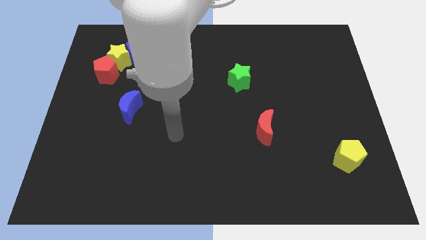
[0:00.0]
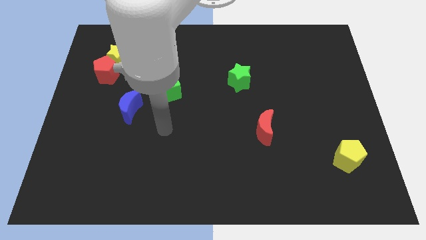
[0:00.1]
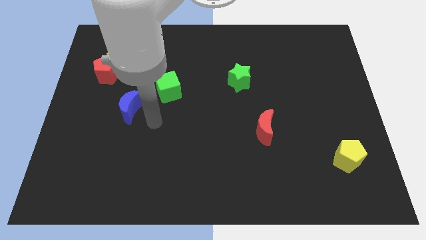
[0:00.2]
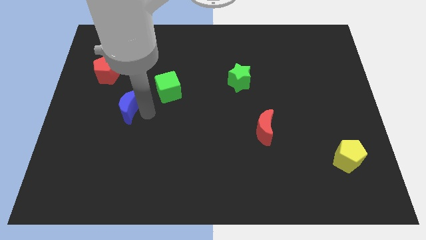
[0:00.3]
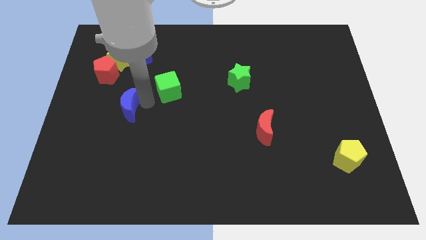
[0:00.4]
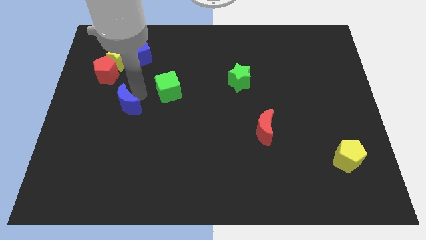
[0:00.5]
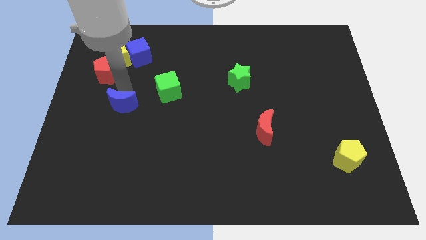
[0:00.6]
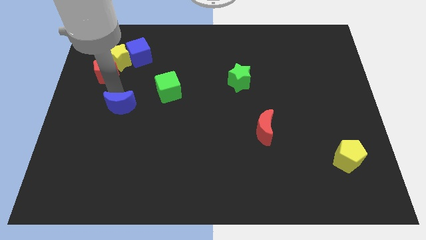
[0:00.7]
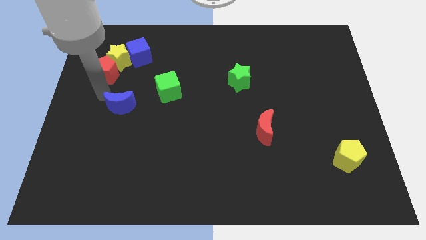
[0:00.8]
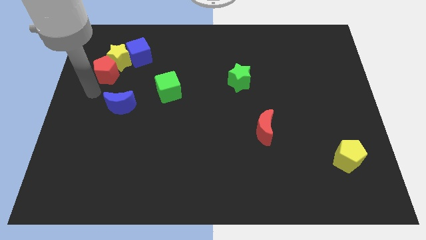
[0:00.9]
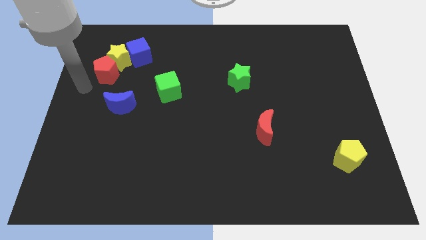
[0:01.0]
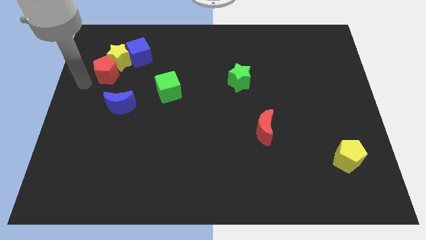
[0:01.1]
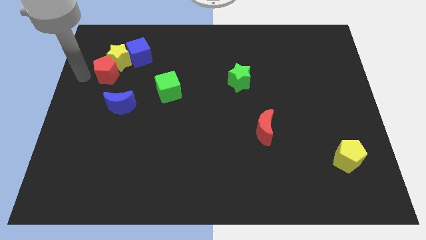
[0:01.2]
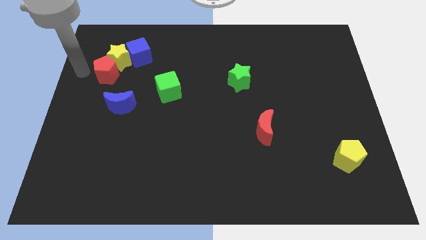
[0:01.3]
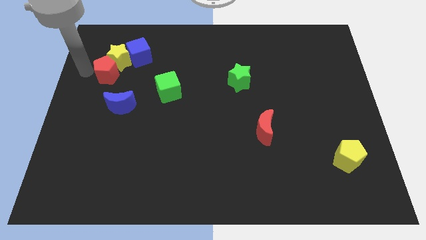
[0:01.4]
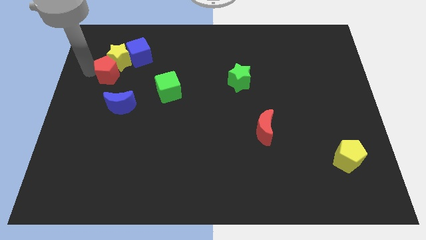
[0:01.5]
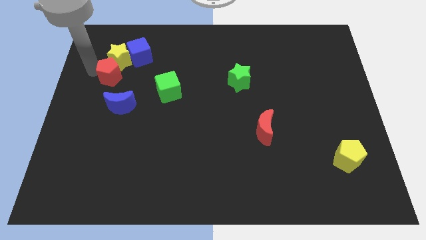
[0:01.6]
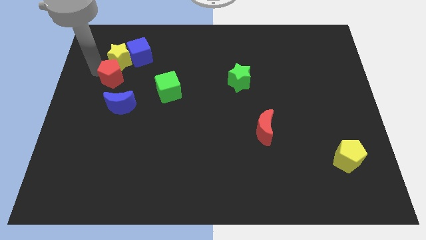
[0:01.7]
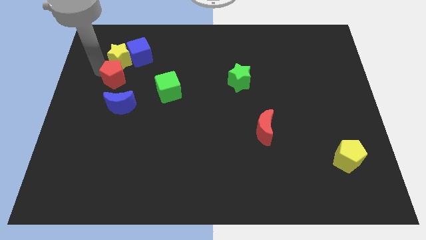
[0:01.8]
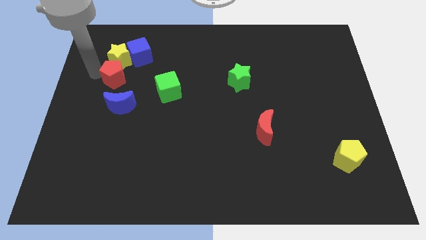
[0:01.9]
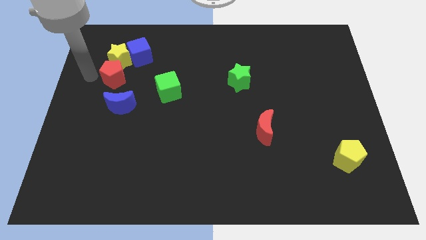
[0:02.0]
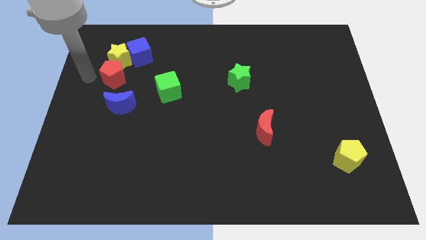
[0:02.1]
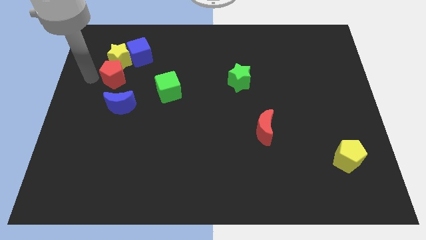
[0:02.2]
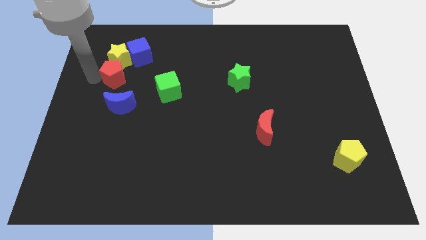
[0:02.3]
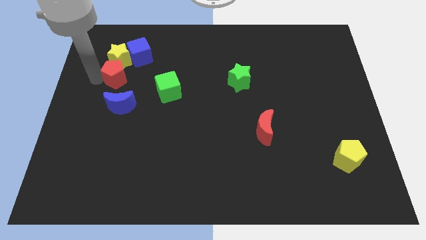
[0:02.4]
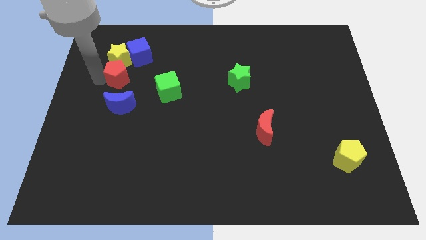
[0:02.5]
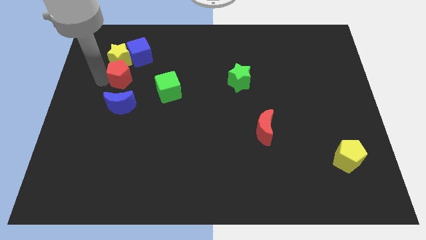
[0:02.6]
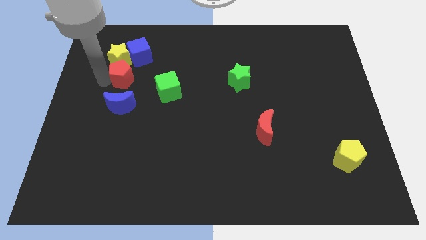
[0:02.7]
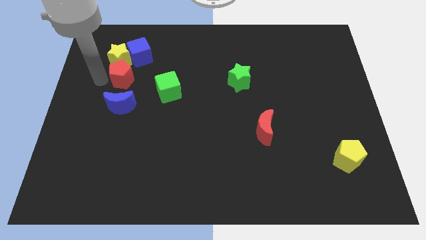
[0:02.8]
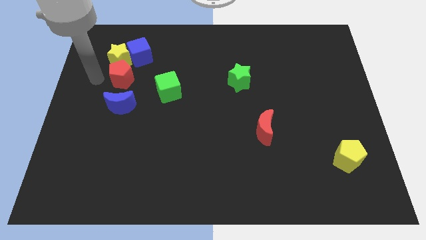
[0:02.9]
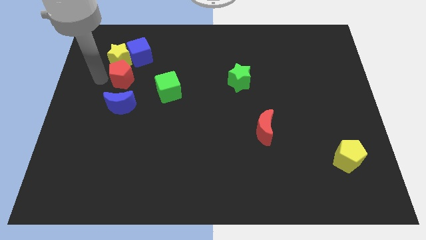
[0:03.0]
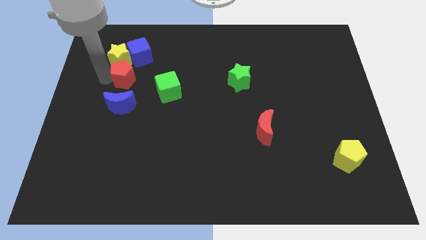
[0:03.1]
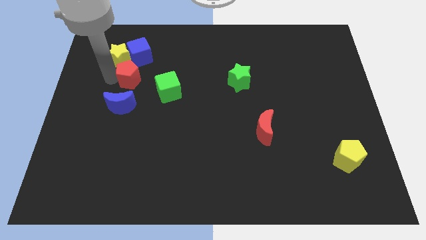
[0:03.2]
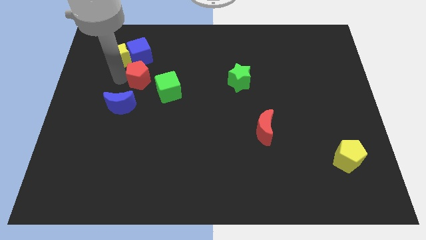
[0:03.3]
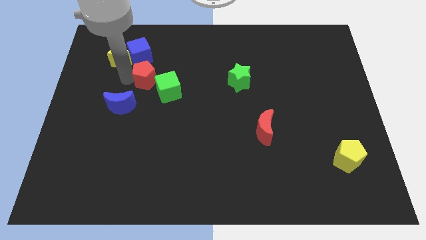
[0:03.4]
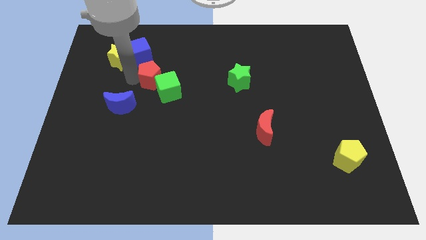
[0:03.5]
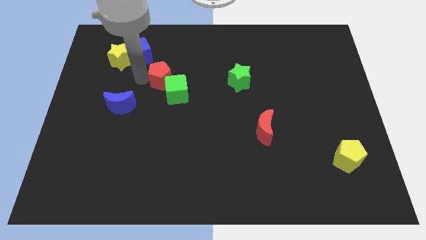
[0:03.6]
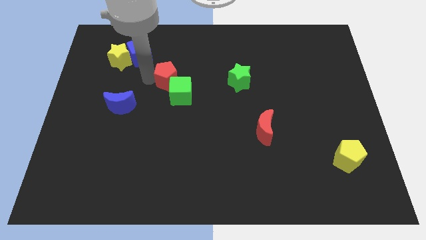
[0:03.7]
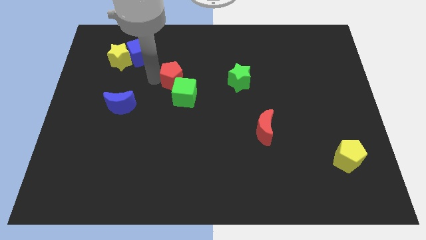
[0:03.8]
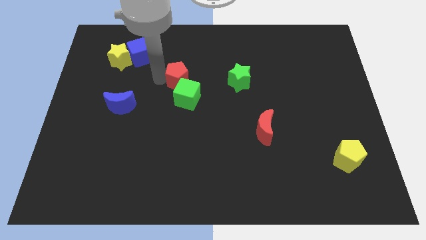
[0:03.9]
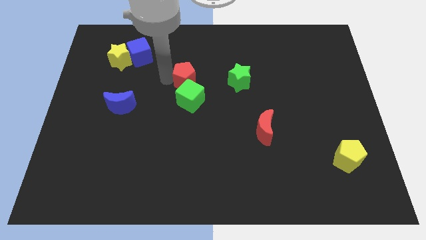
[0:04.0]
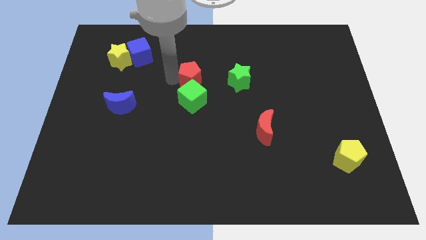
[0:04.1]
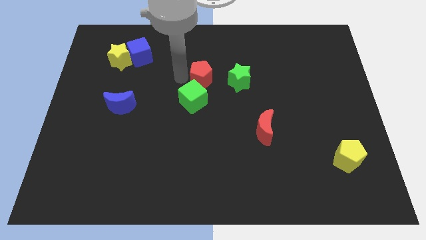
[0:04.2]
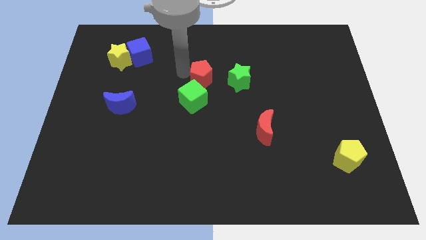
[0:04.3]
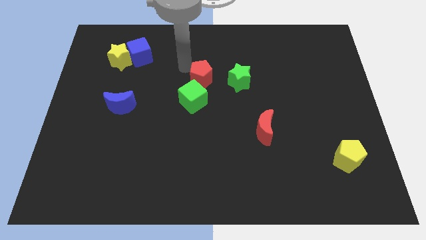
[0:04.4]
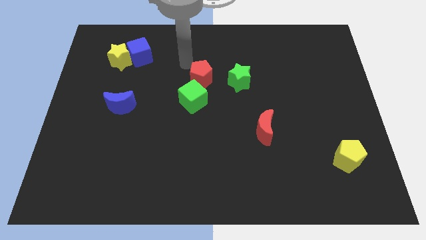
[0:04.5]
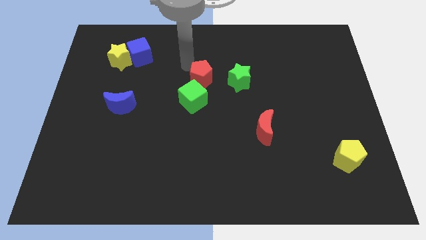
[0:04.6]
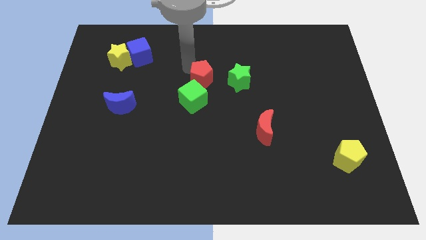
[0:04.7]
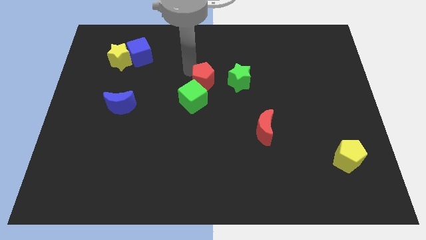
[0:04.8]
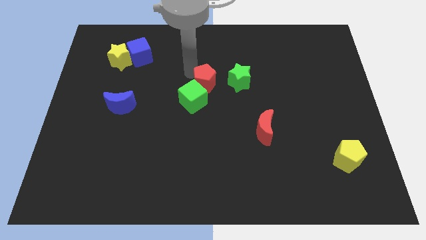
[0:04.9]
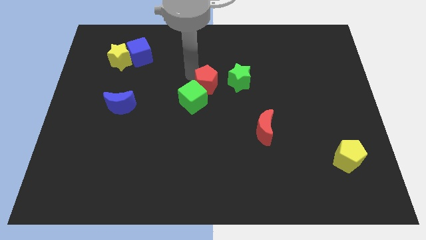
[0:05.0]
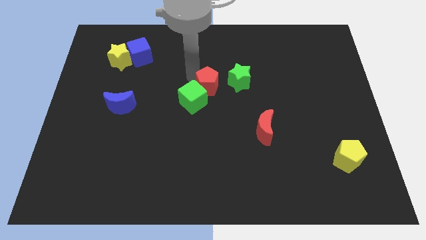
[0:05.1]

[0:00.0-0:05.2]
slide the red pentagon to the bottom left side of the green star

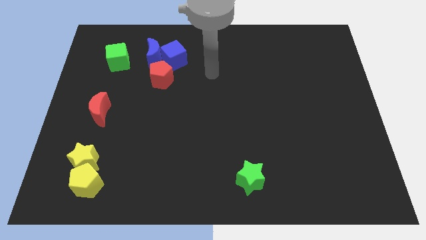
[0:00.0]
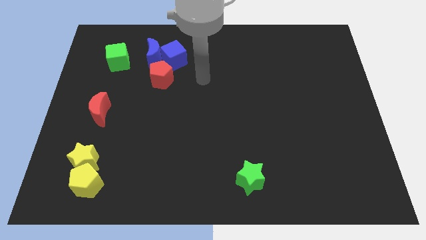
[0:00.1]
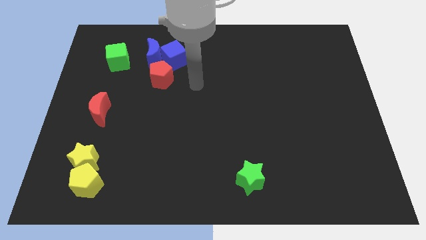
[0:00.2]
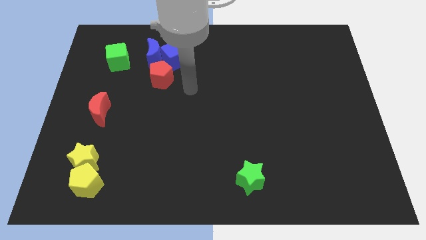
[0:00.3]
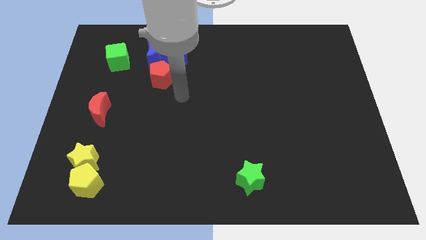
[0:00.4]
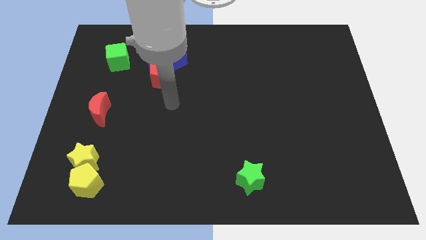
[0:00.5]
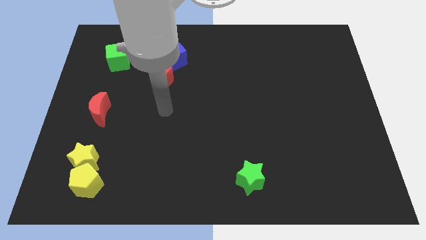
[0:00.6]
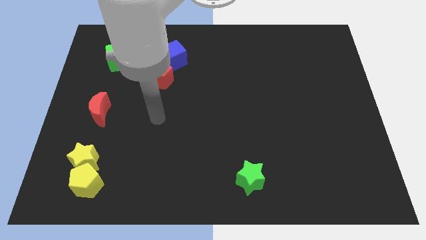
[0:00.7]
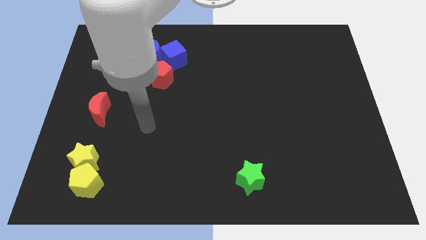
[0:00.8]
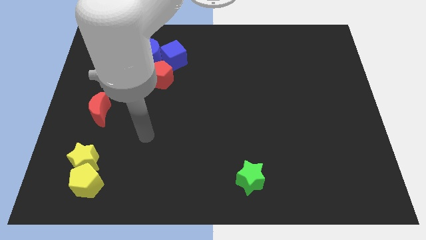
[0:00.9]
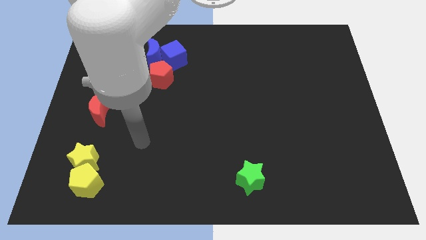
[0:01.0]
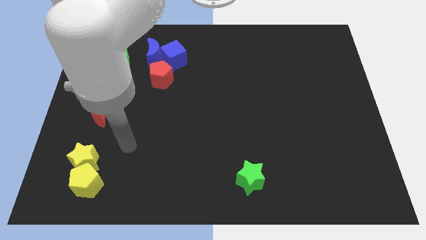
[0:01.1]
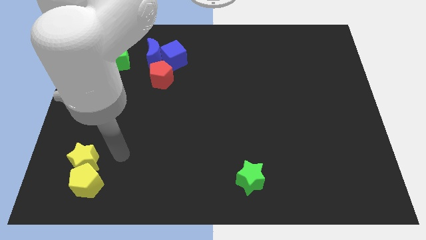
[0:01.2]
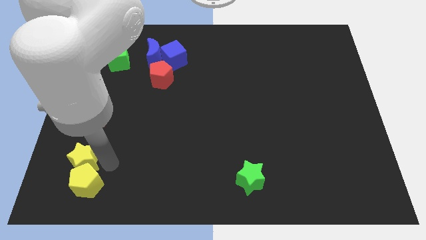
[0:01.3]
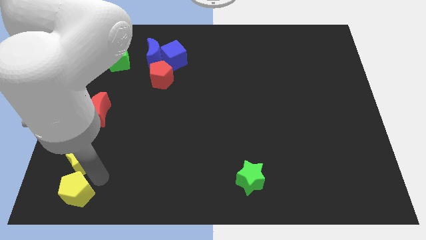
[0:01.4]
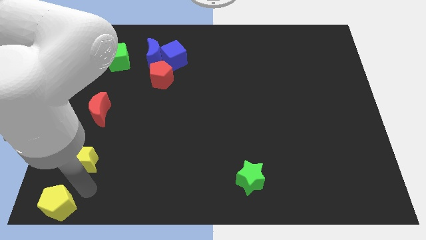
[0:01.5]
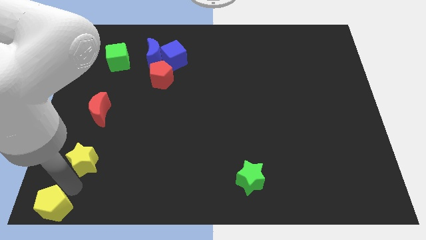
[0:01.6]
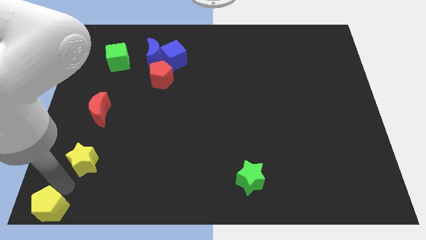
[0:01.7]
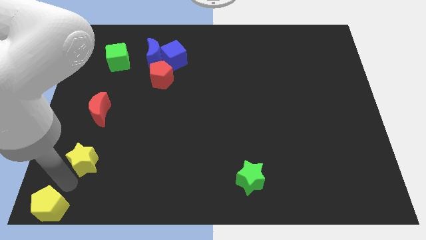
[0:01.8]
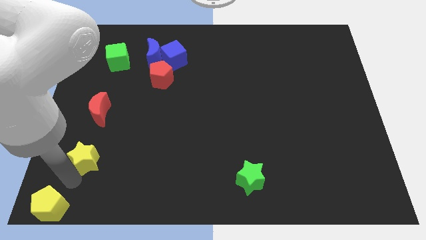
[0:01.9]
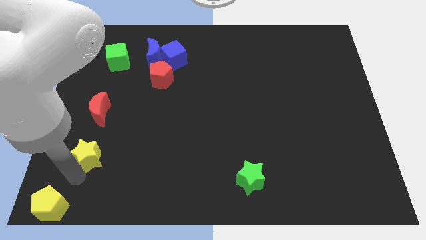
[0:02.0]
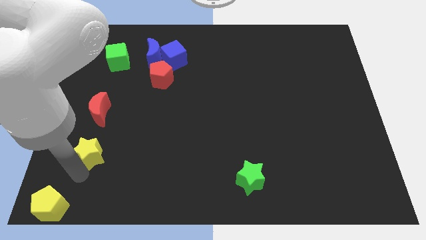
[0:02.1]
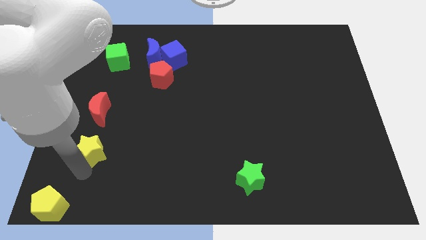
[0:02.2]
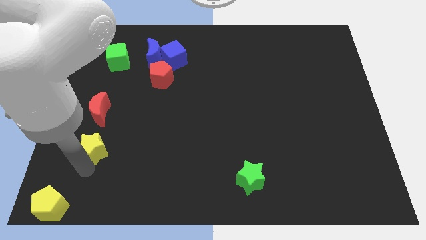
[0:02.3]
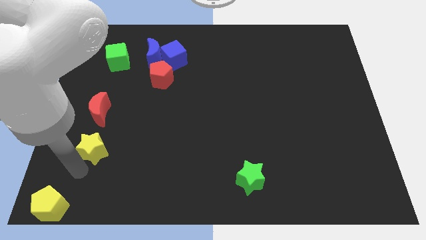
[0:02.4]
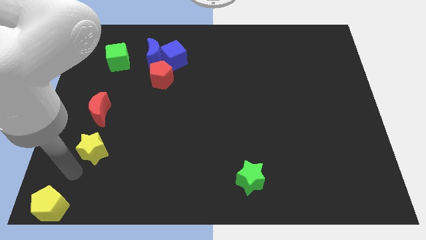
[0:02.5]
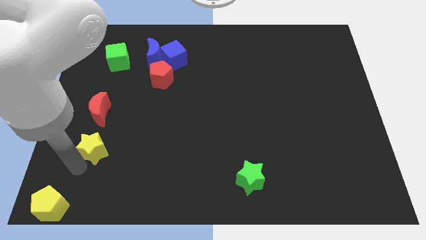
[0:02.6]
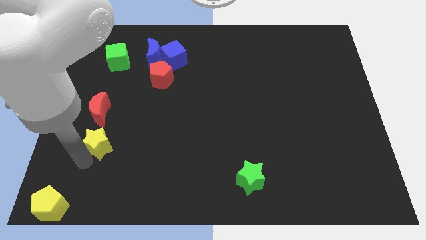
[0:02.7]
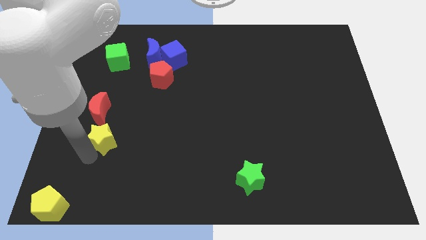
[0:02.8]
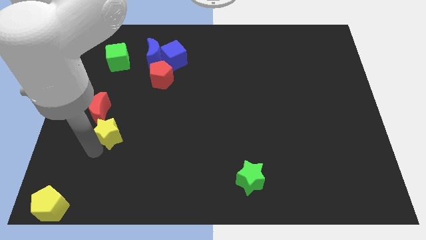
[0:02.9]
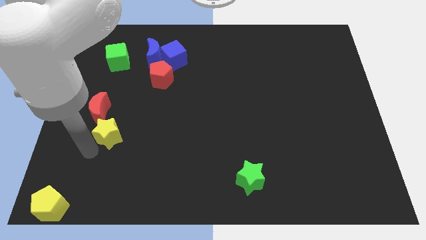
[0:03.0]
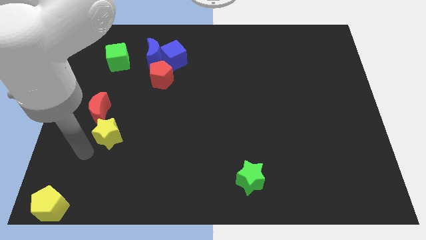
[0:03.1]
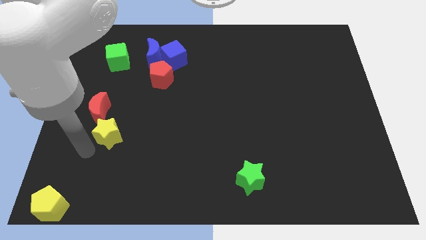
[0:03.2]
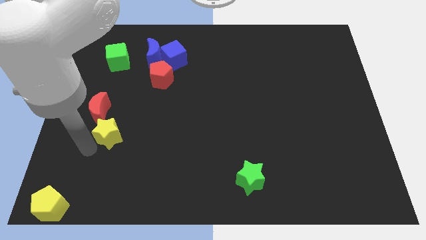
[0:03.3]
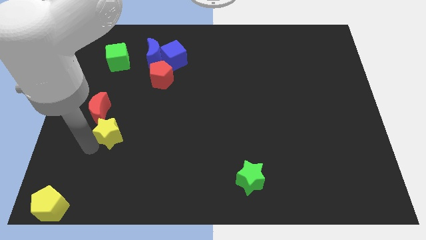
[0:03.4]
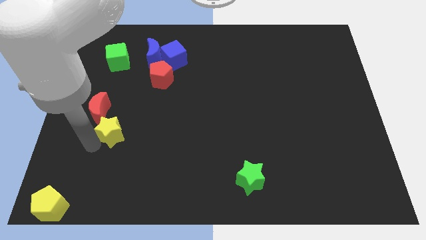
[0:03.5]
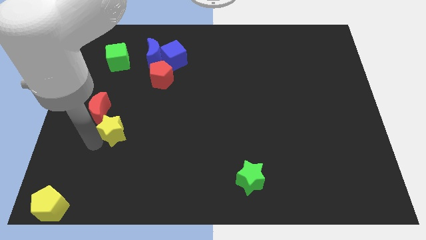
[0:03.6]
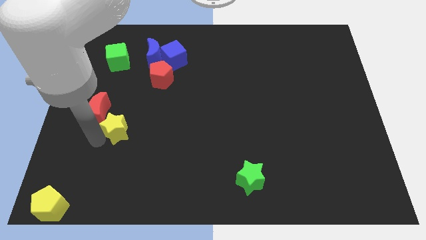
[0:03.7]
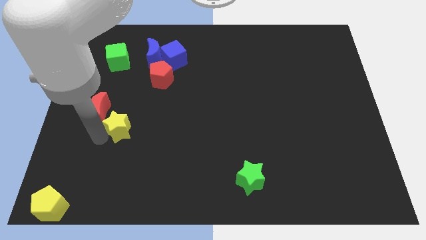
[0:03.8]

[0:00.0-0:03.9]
push the yellow star just right of the red moon
